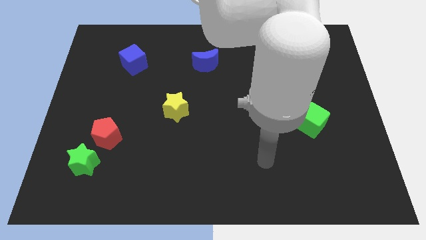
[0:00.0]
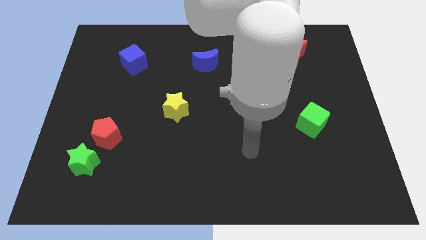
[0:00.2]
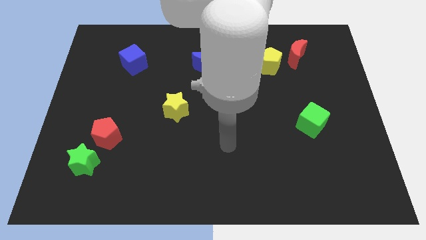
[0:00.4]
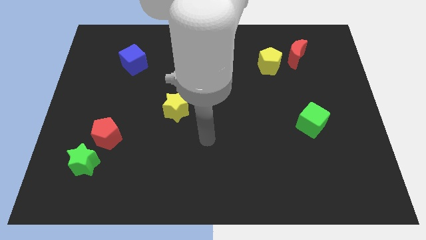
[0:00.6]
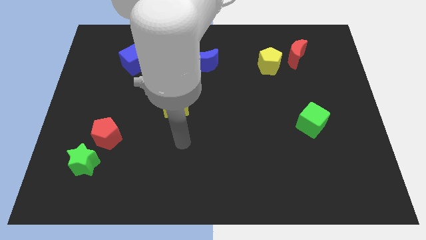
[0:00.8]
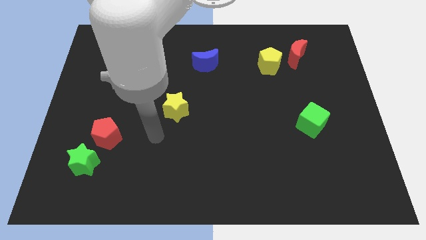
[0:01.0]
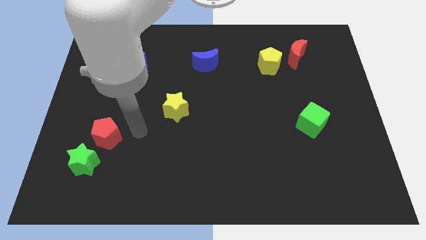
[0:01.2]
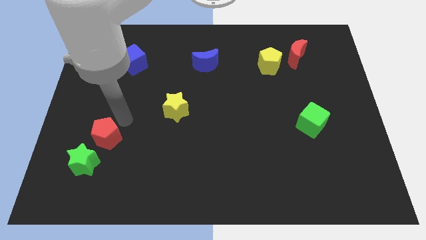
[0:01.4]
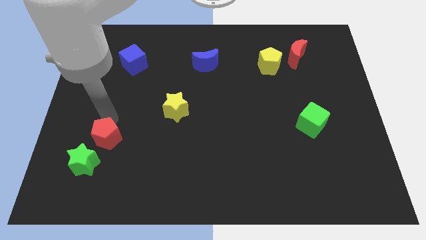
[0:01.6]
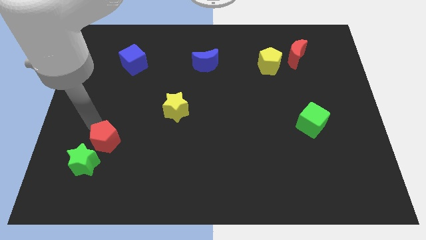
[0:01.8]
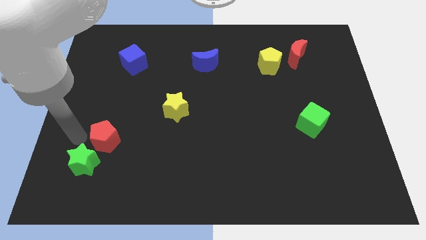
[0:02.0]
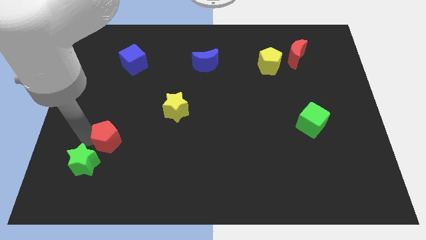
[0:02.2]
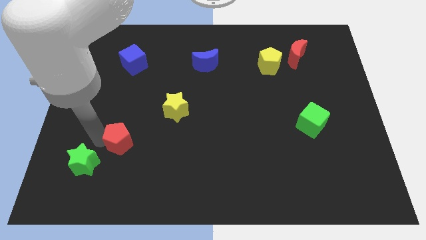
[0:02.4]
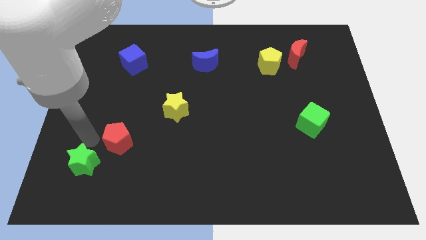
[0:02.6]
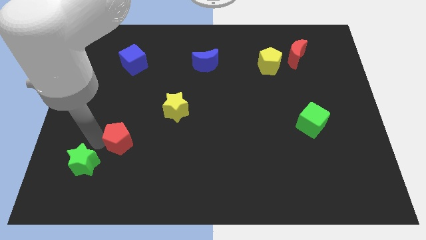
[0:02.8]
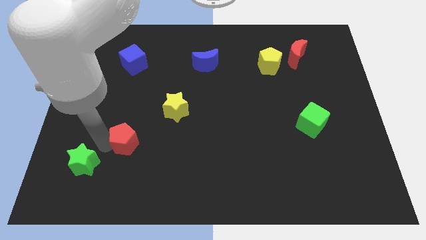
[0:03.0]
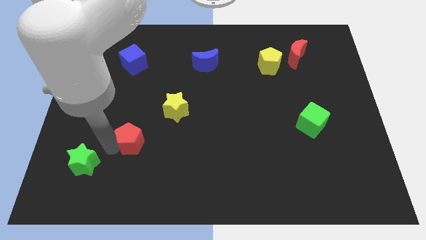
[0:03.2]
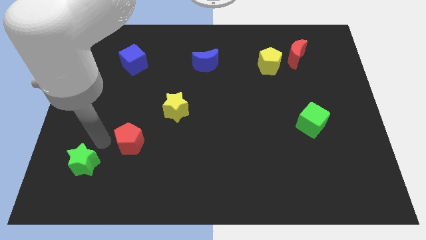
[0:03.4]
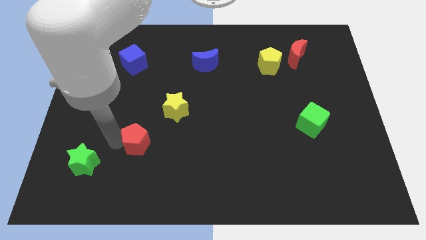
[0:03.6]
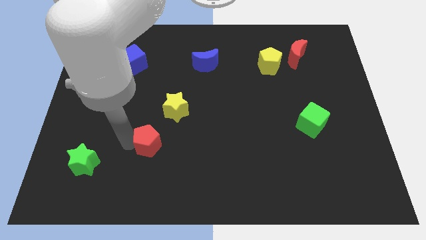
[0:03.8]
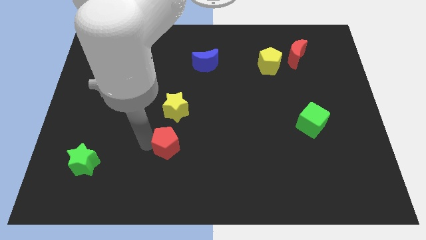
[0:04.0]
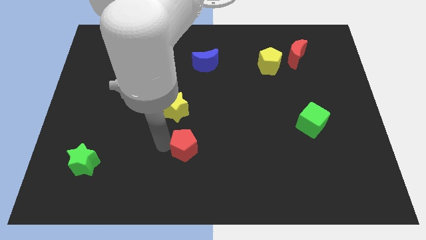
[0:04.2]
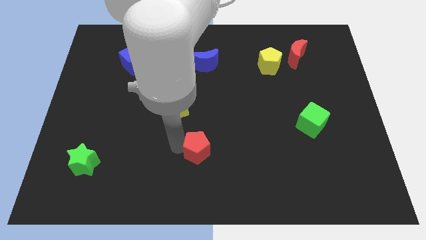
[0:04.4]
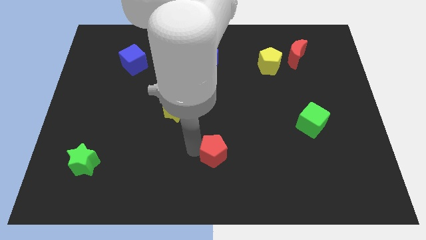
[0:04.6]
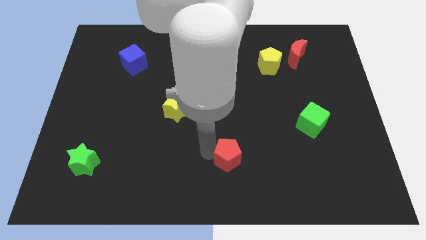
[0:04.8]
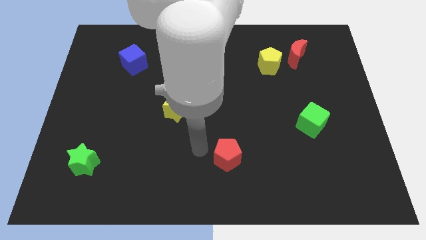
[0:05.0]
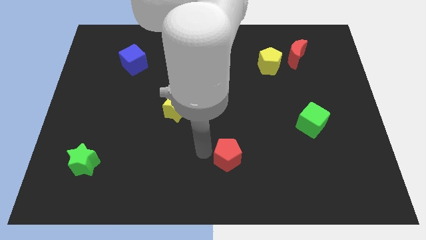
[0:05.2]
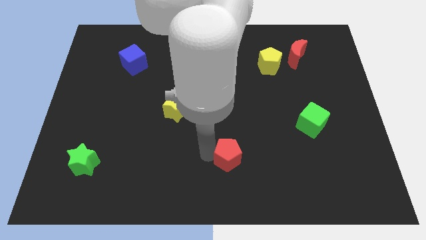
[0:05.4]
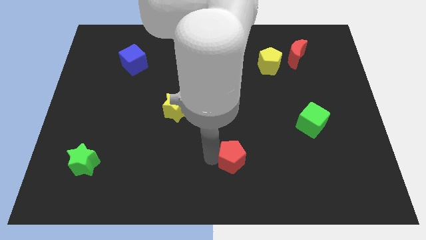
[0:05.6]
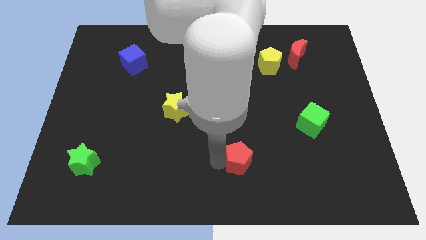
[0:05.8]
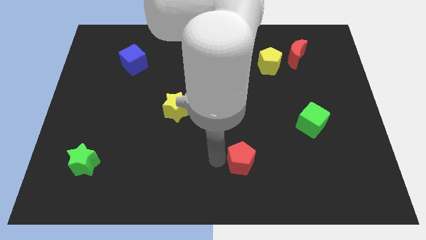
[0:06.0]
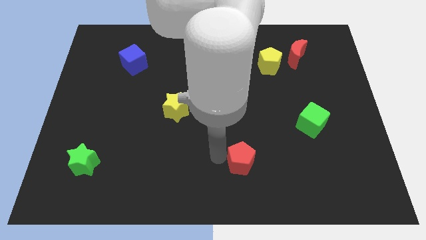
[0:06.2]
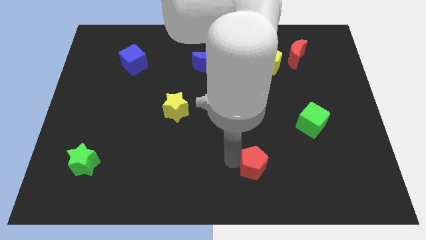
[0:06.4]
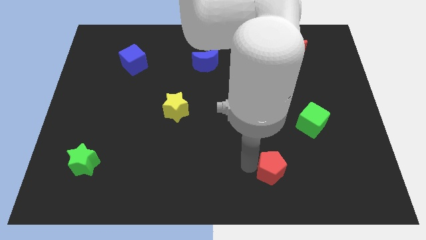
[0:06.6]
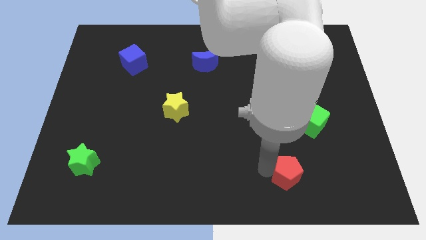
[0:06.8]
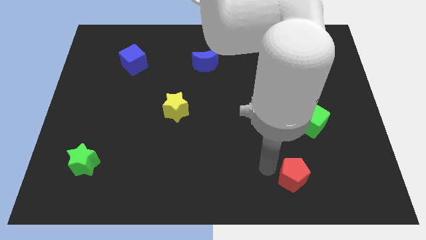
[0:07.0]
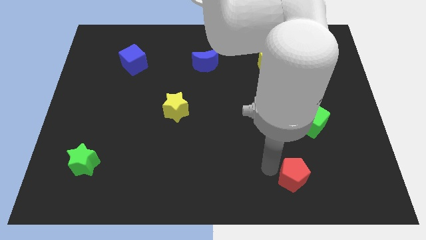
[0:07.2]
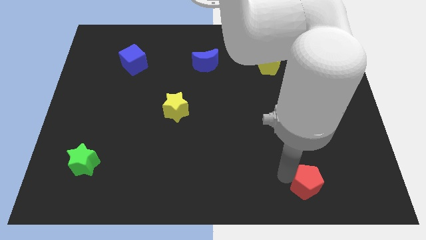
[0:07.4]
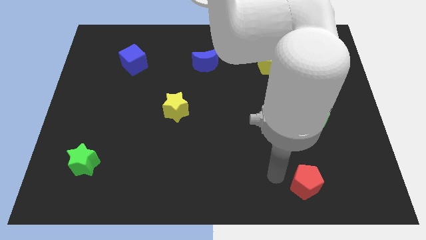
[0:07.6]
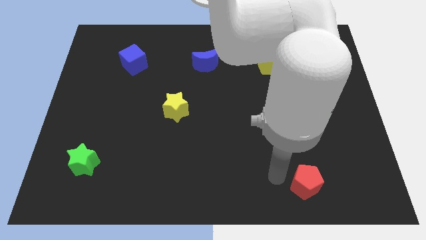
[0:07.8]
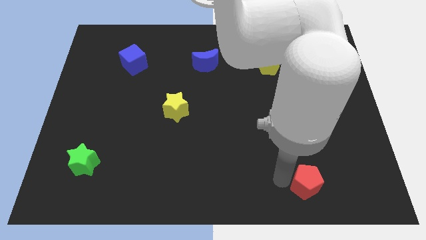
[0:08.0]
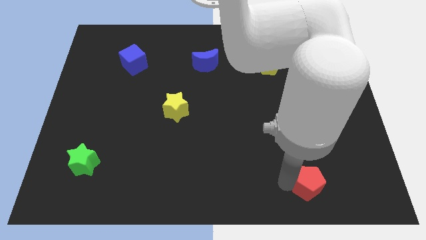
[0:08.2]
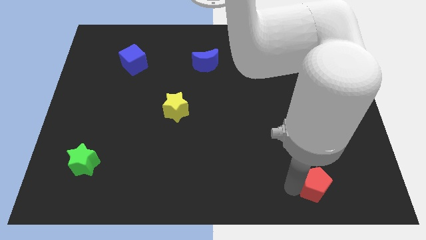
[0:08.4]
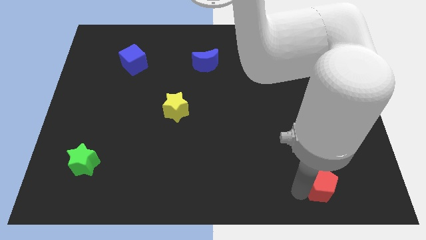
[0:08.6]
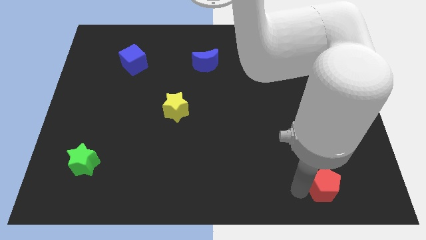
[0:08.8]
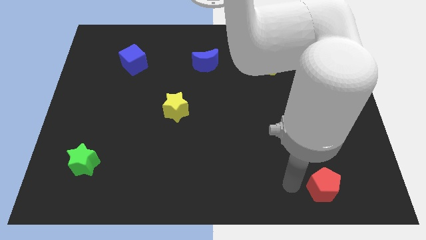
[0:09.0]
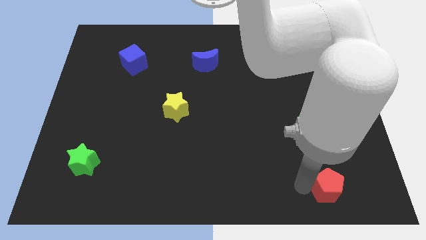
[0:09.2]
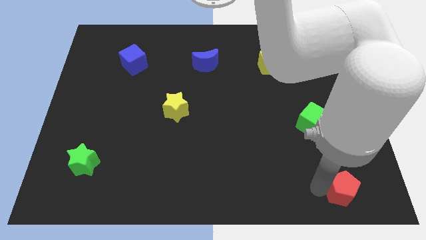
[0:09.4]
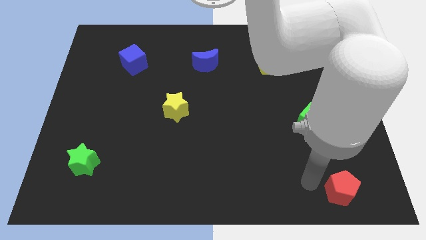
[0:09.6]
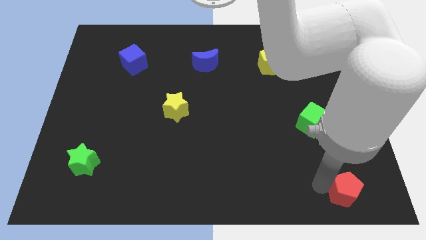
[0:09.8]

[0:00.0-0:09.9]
move the red pentagon to the lower right corner

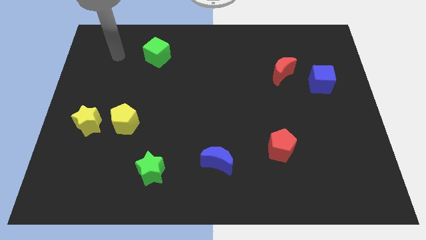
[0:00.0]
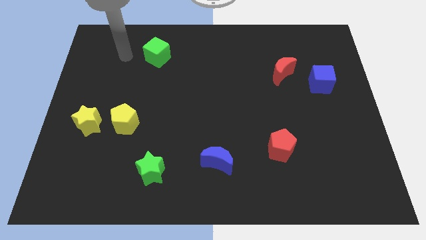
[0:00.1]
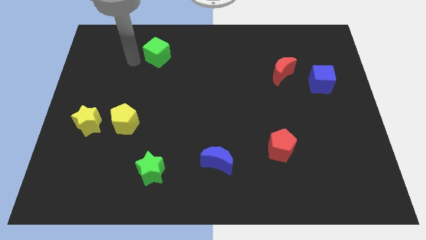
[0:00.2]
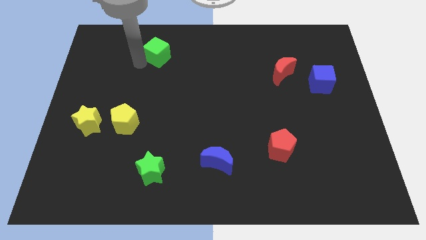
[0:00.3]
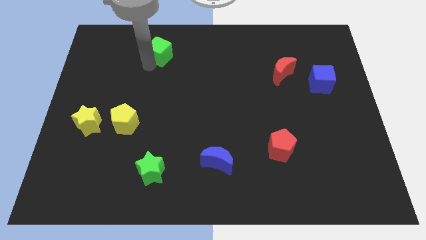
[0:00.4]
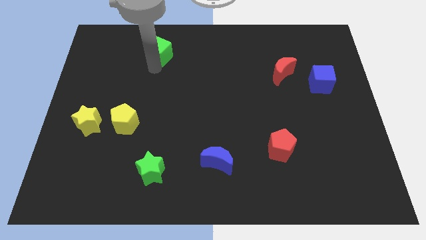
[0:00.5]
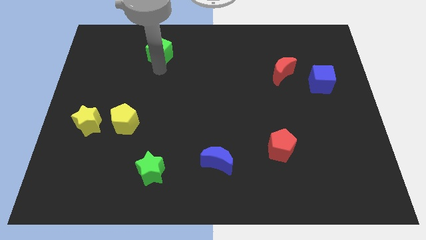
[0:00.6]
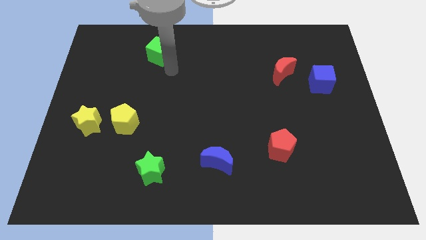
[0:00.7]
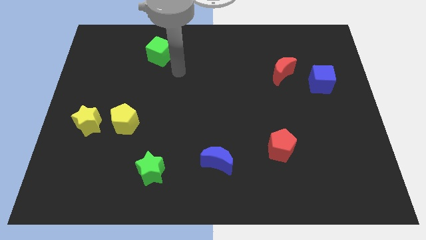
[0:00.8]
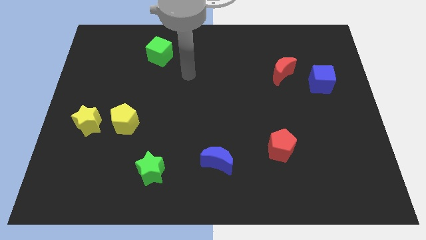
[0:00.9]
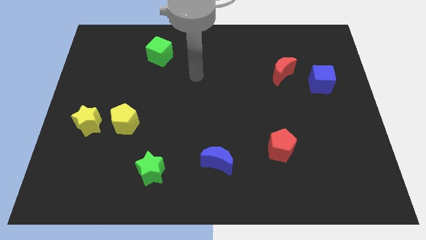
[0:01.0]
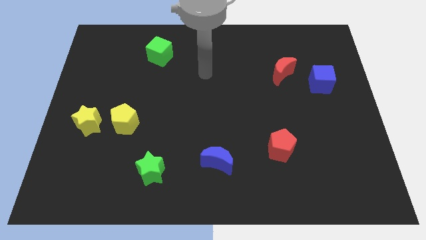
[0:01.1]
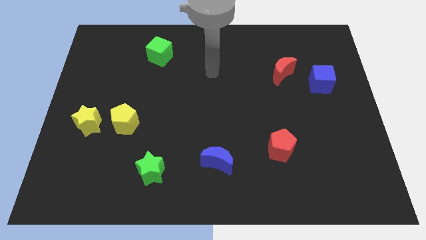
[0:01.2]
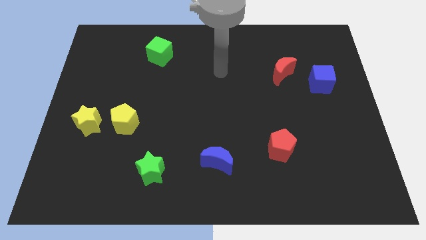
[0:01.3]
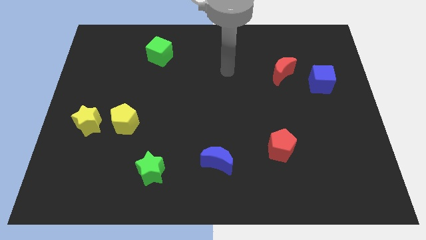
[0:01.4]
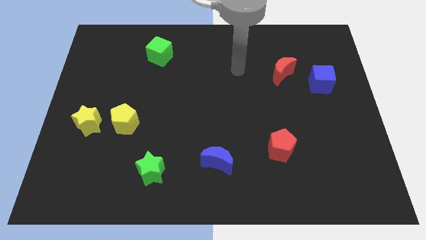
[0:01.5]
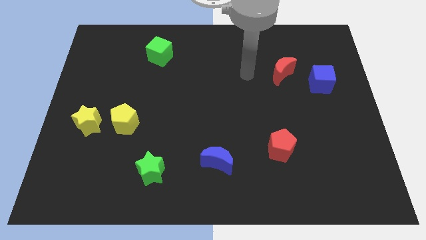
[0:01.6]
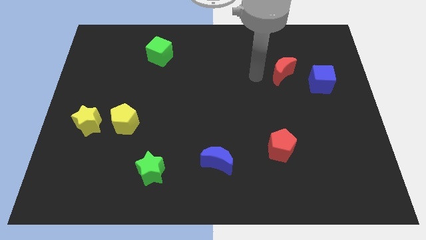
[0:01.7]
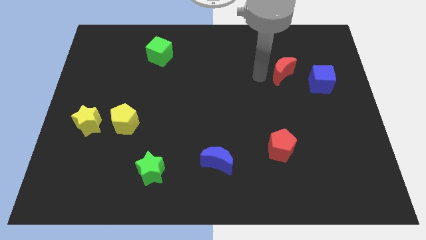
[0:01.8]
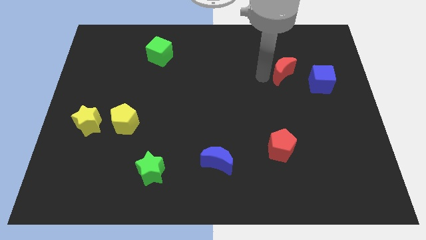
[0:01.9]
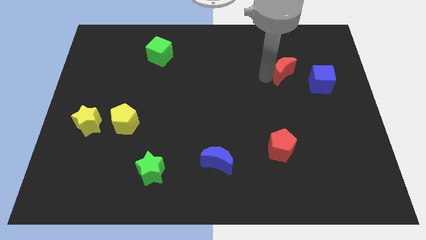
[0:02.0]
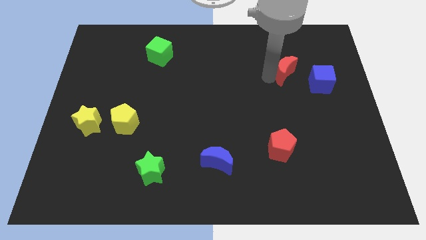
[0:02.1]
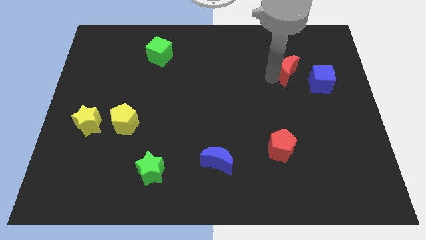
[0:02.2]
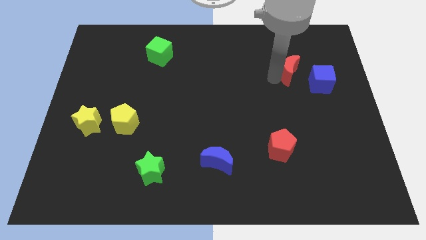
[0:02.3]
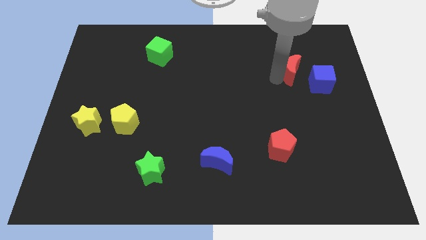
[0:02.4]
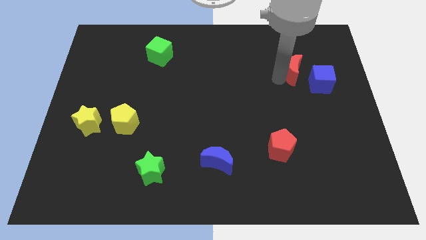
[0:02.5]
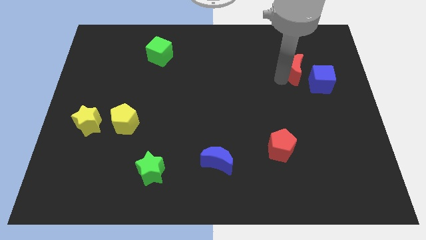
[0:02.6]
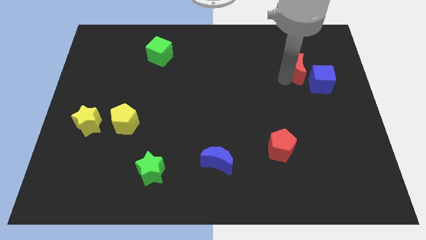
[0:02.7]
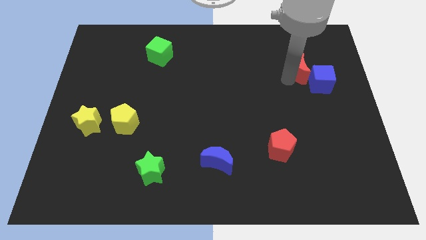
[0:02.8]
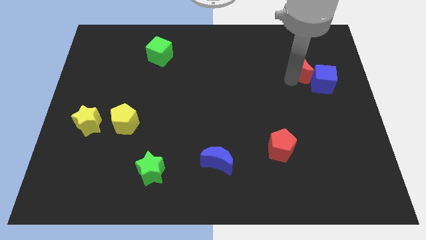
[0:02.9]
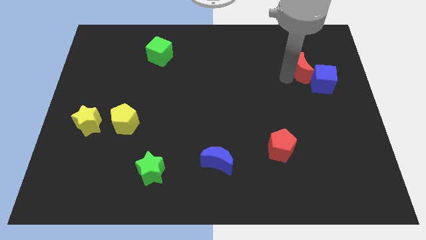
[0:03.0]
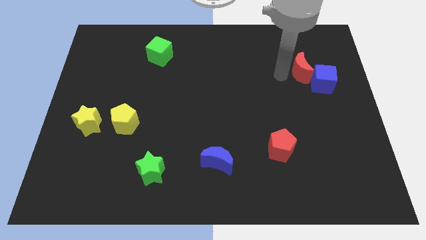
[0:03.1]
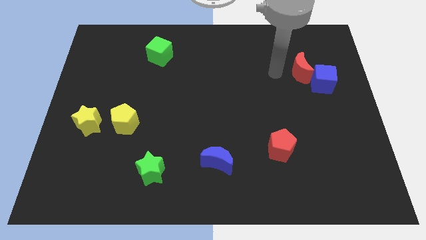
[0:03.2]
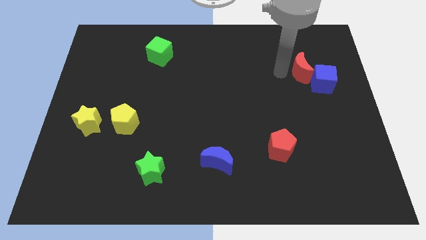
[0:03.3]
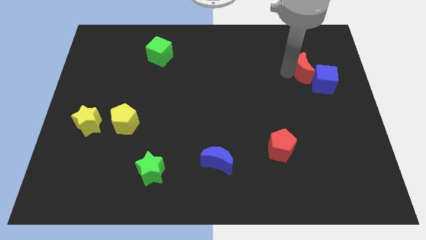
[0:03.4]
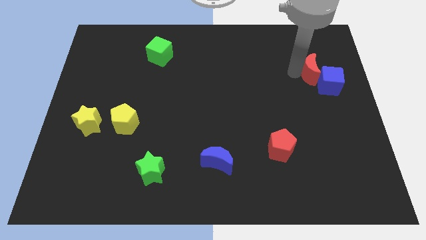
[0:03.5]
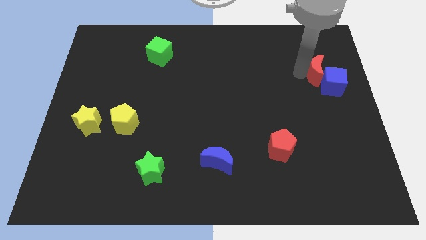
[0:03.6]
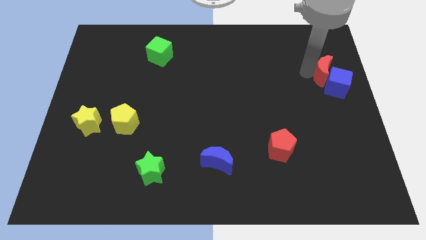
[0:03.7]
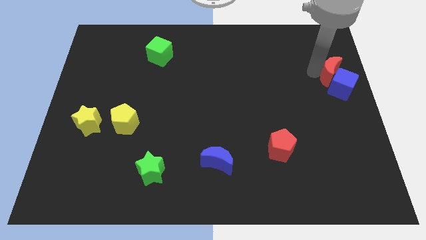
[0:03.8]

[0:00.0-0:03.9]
slide the red moon to the right side
